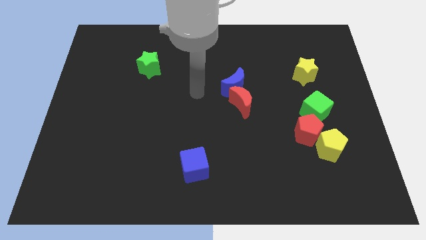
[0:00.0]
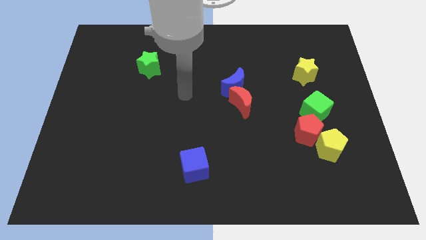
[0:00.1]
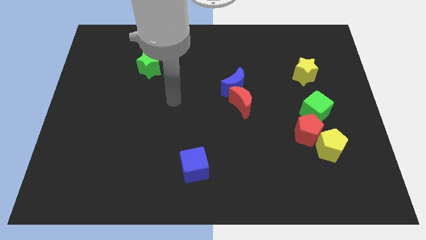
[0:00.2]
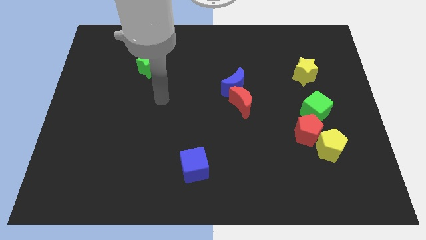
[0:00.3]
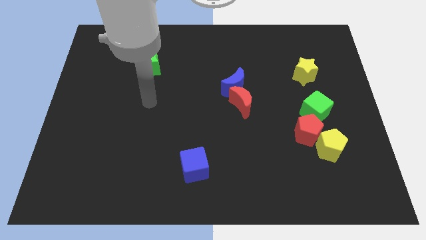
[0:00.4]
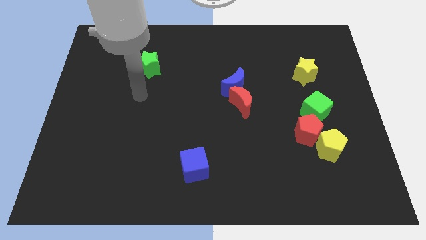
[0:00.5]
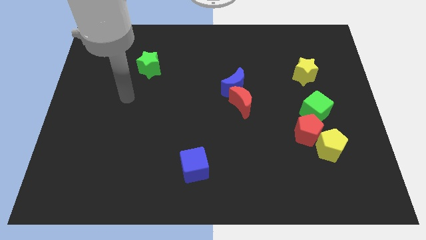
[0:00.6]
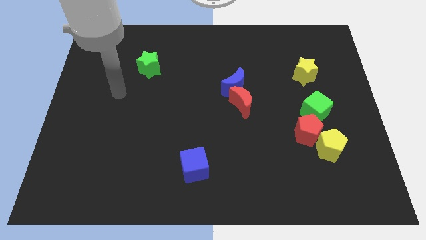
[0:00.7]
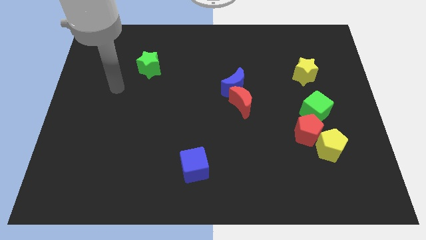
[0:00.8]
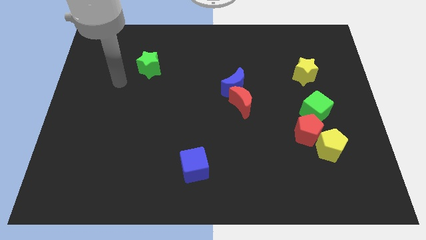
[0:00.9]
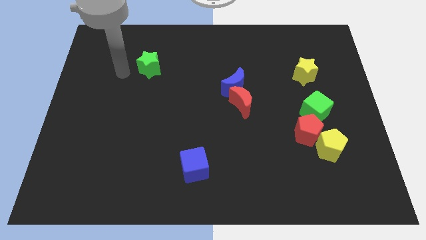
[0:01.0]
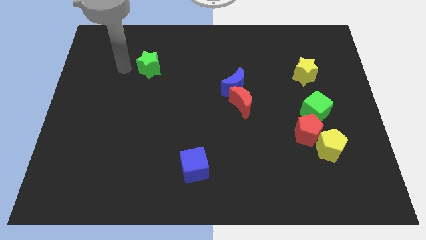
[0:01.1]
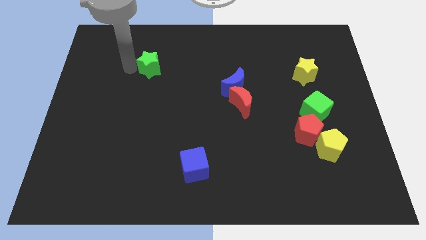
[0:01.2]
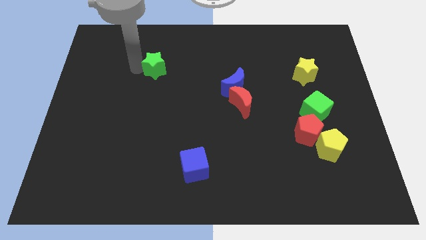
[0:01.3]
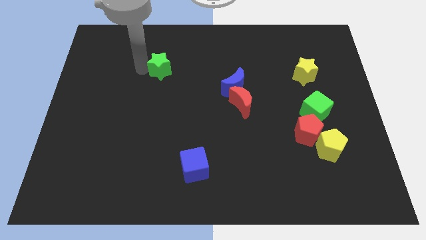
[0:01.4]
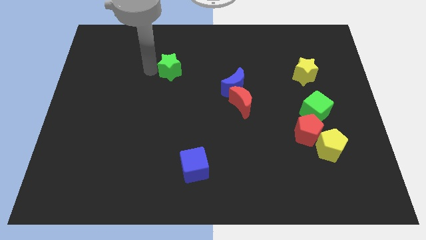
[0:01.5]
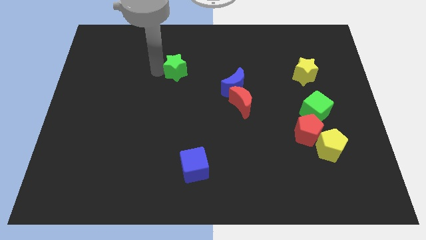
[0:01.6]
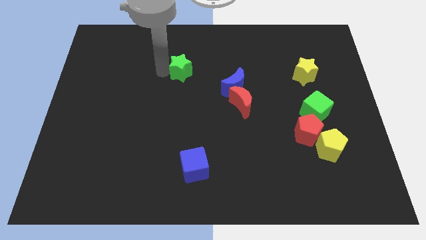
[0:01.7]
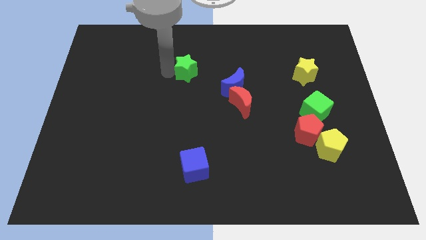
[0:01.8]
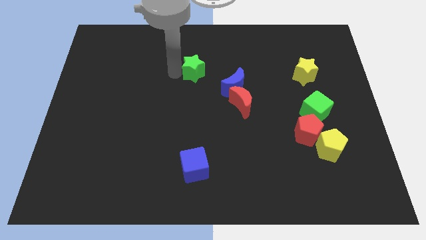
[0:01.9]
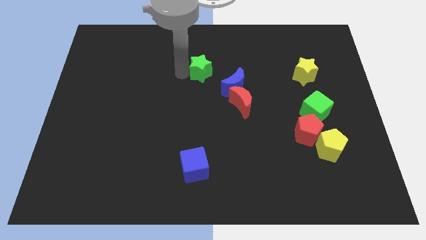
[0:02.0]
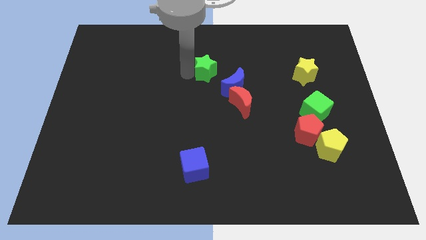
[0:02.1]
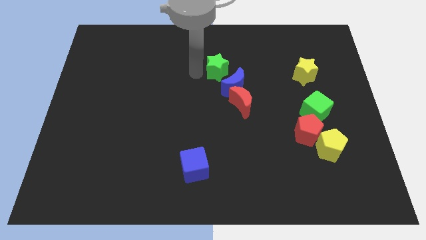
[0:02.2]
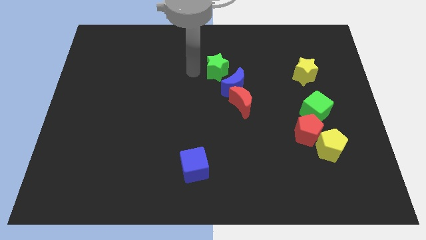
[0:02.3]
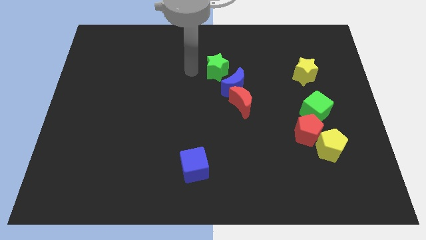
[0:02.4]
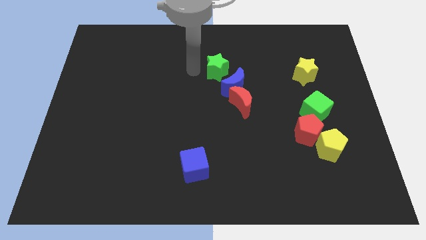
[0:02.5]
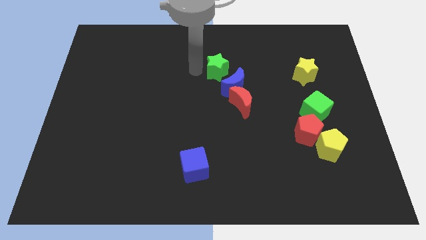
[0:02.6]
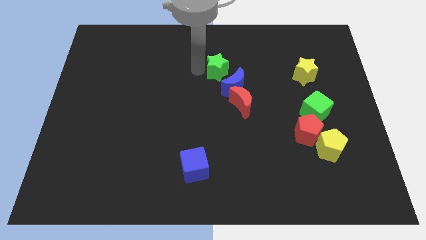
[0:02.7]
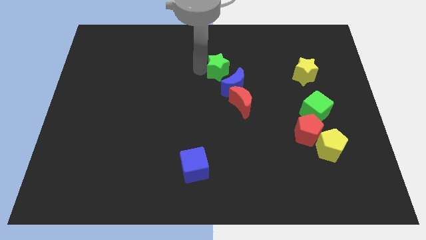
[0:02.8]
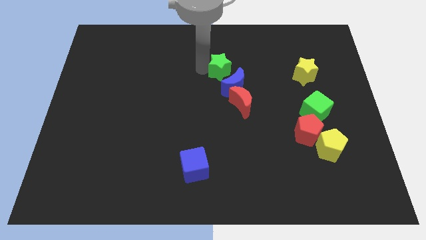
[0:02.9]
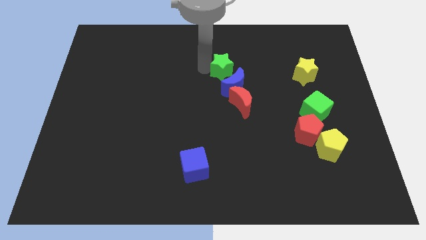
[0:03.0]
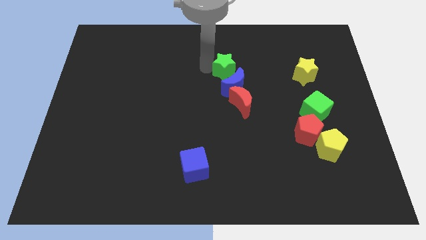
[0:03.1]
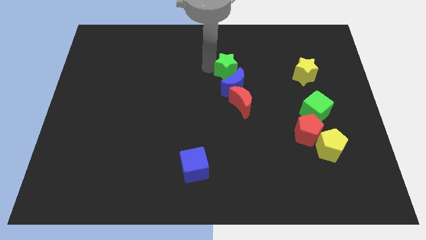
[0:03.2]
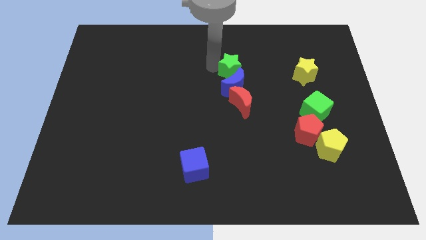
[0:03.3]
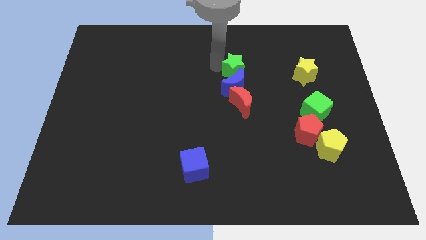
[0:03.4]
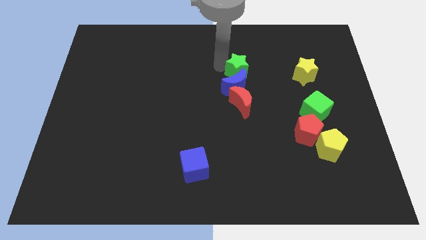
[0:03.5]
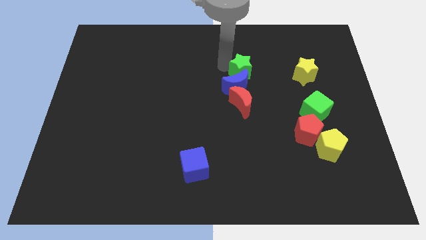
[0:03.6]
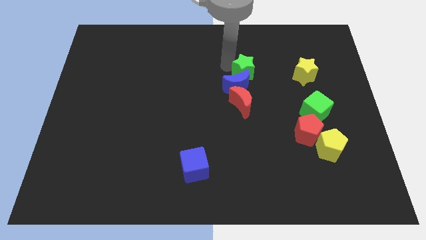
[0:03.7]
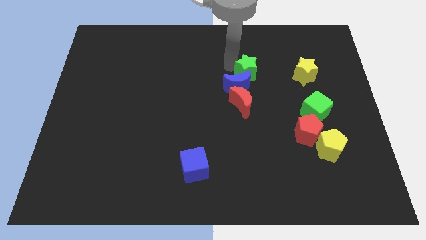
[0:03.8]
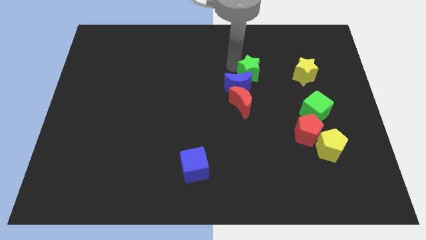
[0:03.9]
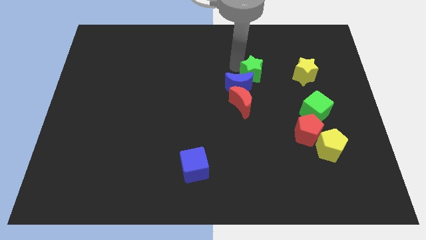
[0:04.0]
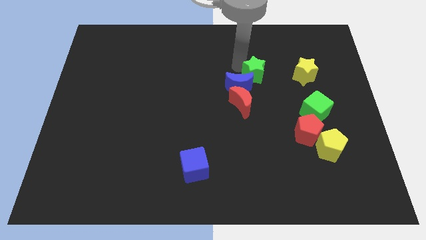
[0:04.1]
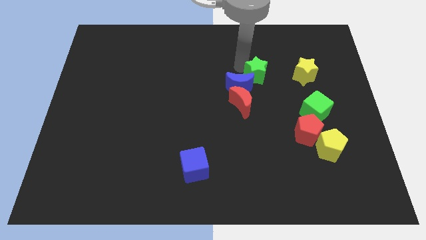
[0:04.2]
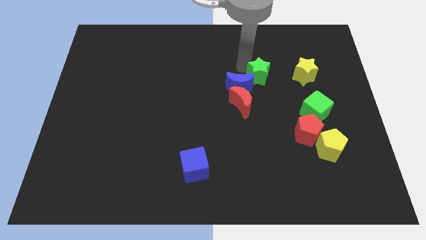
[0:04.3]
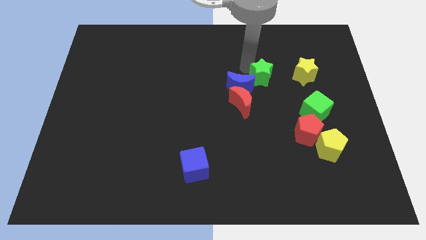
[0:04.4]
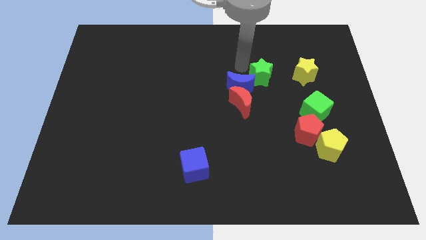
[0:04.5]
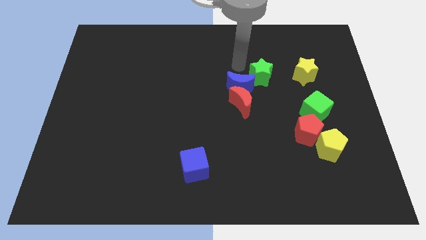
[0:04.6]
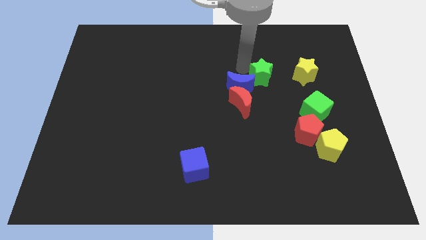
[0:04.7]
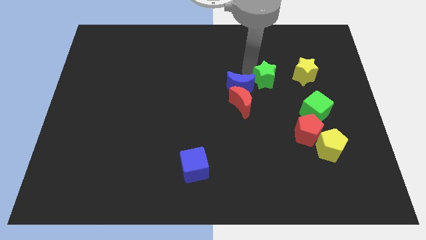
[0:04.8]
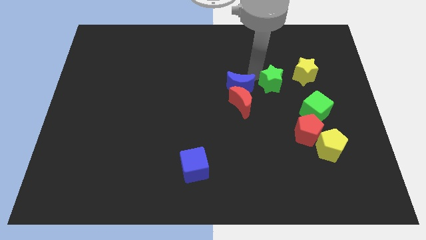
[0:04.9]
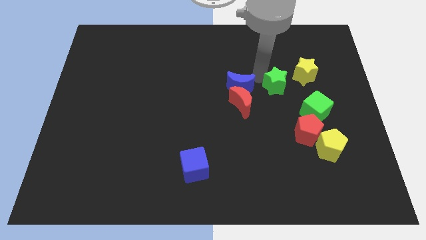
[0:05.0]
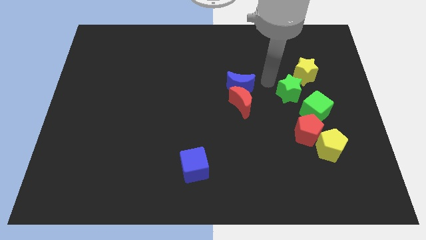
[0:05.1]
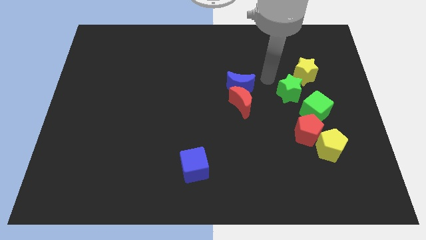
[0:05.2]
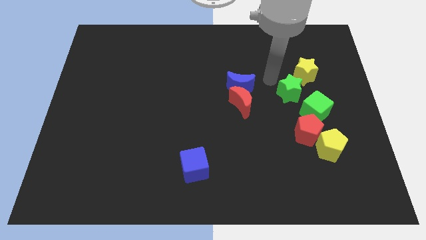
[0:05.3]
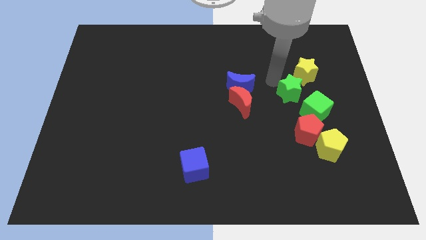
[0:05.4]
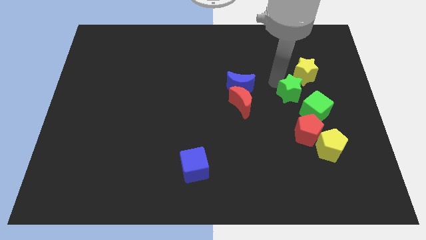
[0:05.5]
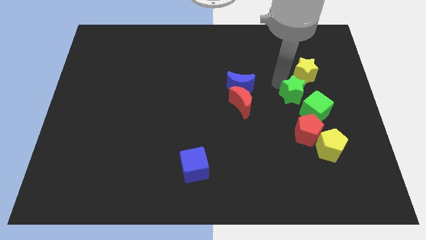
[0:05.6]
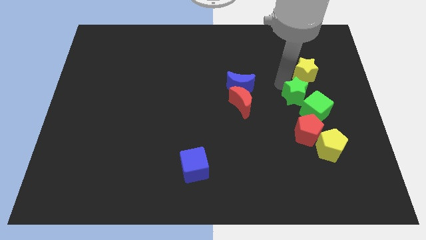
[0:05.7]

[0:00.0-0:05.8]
slide the green star to the green cube

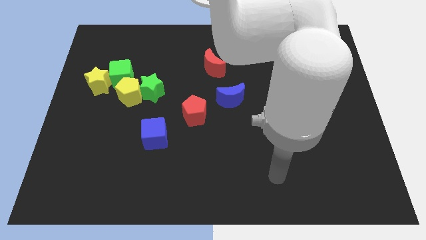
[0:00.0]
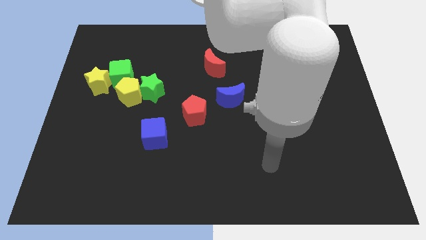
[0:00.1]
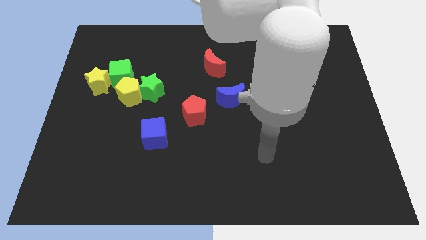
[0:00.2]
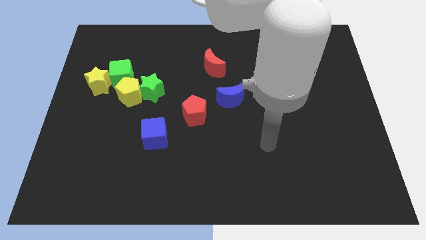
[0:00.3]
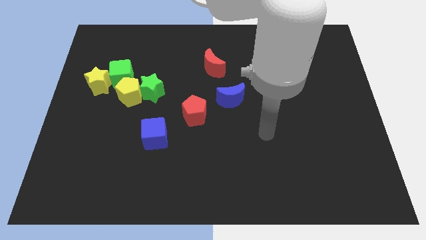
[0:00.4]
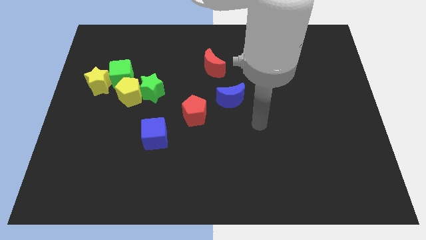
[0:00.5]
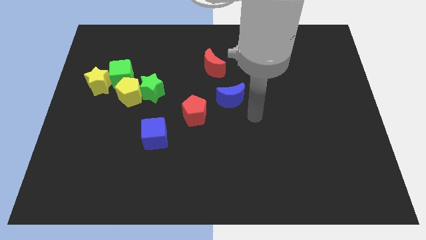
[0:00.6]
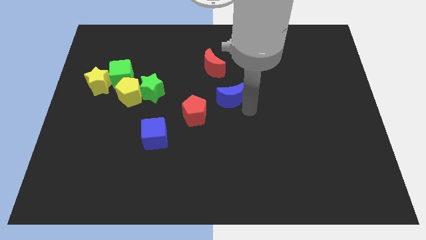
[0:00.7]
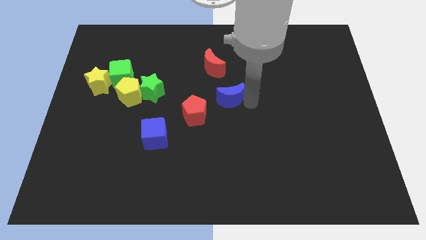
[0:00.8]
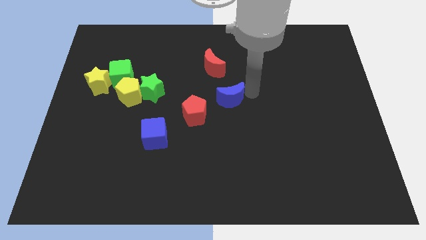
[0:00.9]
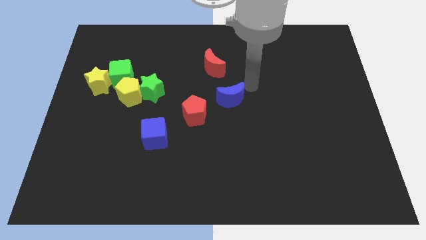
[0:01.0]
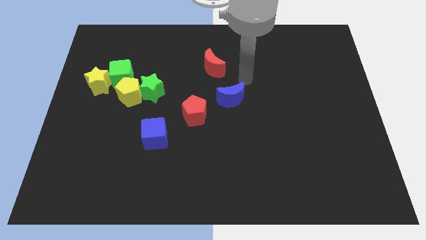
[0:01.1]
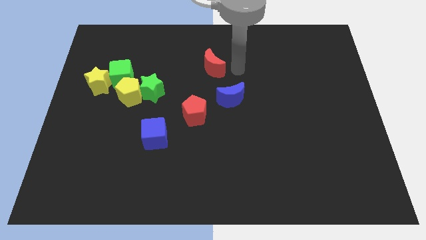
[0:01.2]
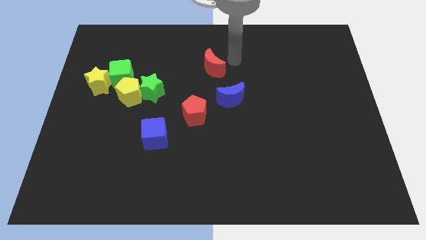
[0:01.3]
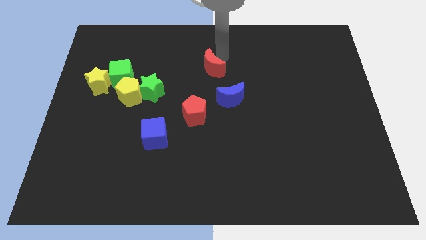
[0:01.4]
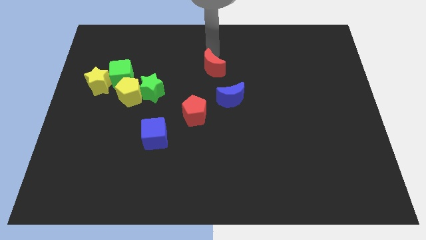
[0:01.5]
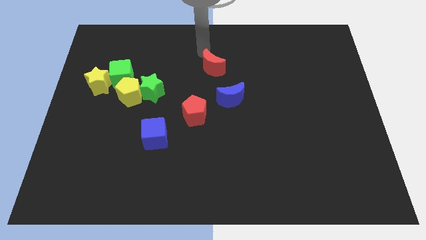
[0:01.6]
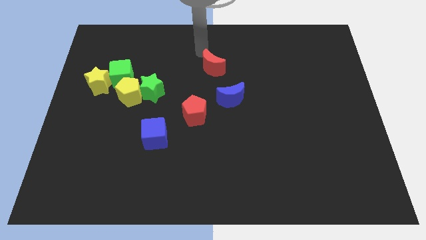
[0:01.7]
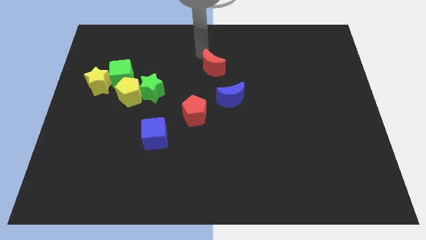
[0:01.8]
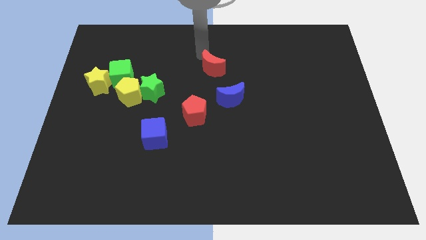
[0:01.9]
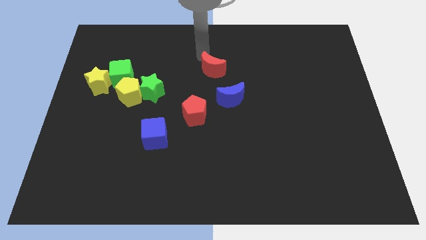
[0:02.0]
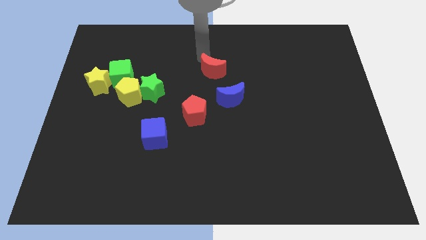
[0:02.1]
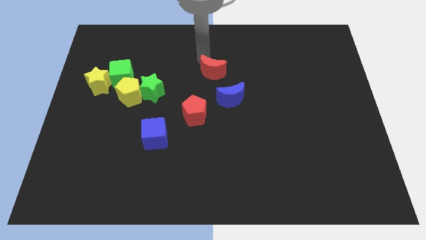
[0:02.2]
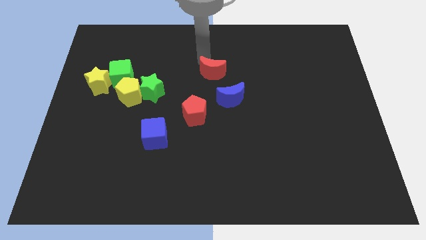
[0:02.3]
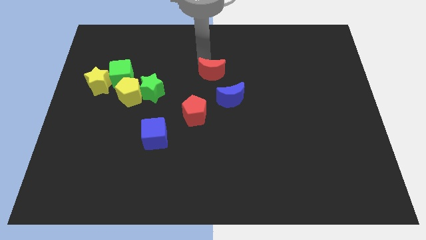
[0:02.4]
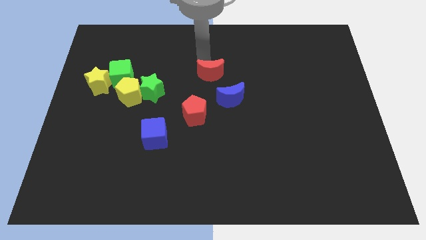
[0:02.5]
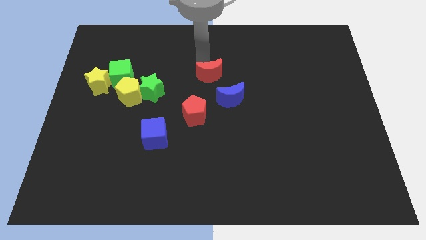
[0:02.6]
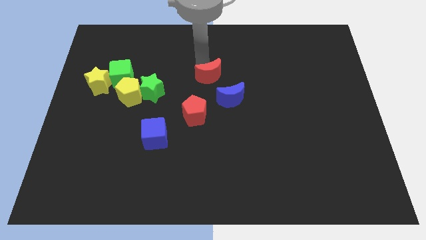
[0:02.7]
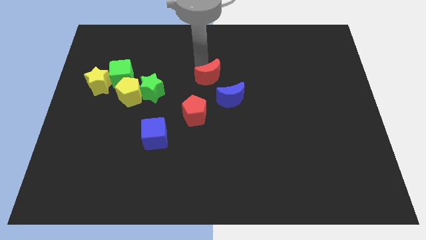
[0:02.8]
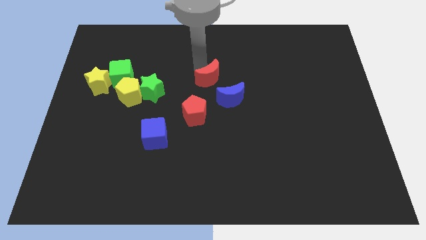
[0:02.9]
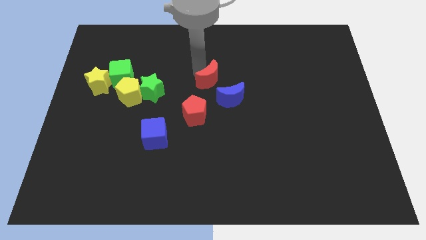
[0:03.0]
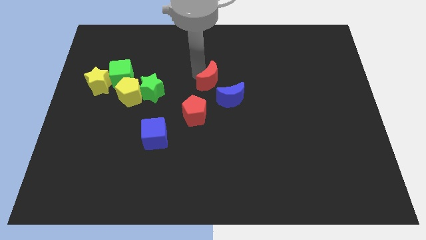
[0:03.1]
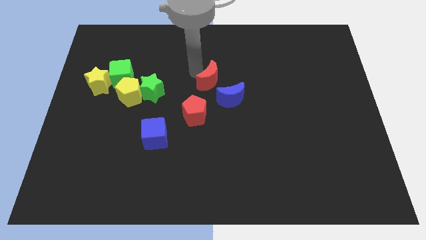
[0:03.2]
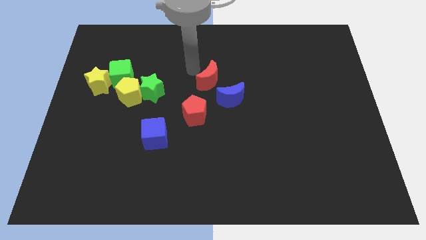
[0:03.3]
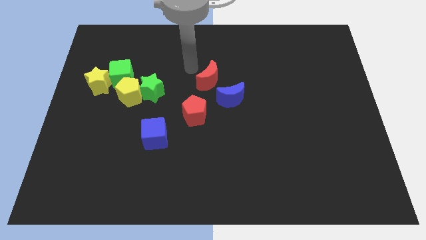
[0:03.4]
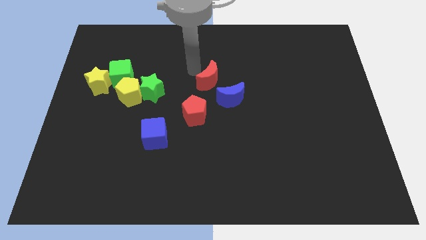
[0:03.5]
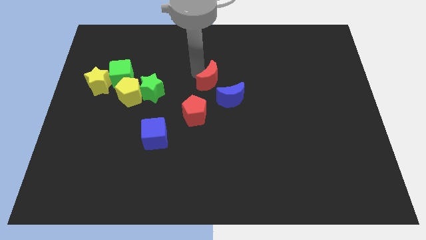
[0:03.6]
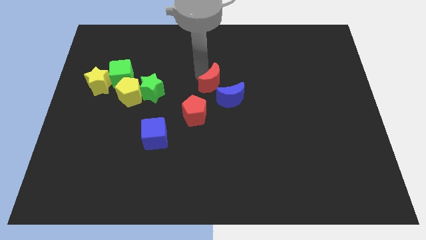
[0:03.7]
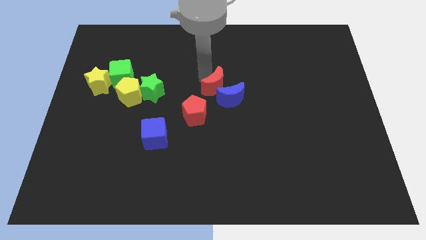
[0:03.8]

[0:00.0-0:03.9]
move the red moon towards the blue moon
